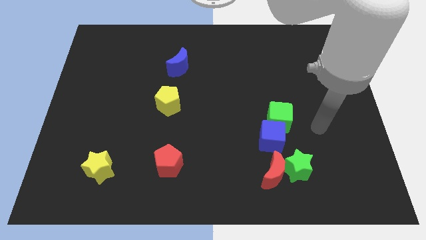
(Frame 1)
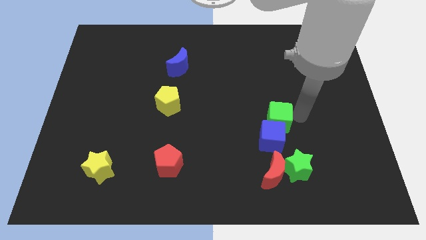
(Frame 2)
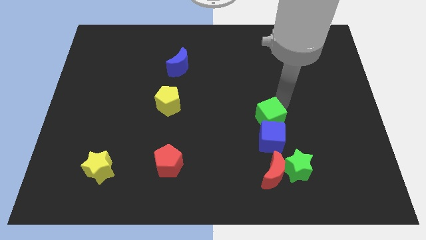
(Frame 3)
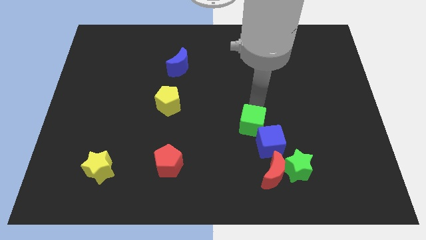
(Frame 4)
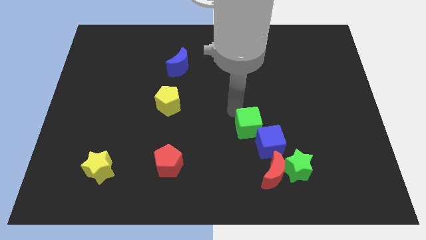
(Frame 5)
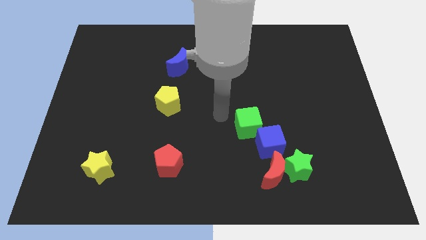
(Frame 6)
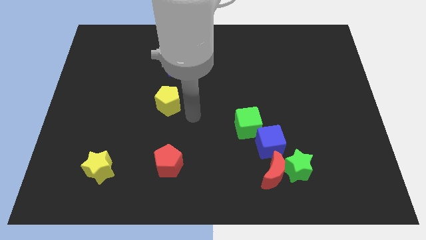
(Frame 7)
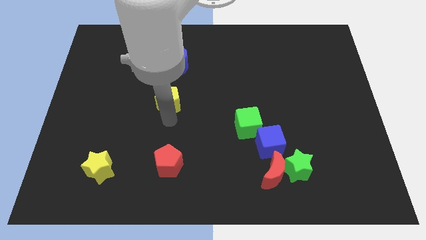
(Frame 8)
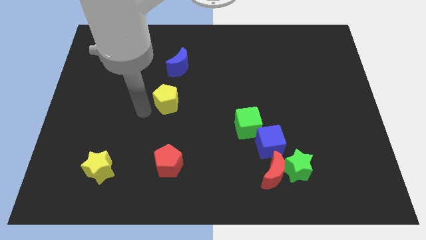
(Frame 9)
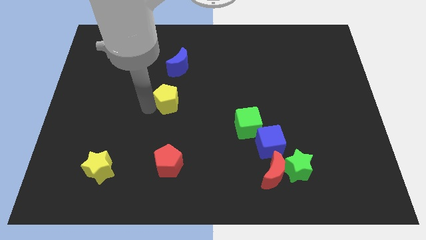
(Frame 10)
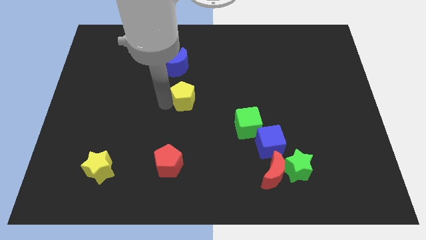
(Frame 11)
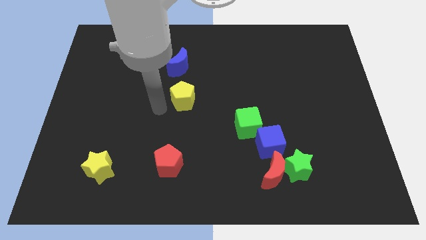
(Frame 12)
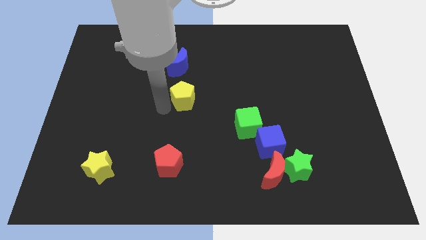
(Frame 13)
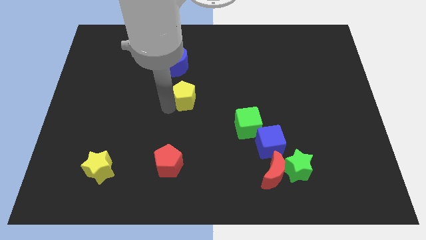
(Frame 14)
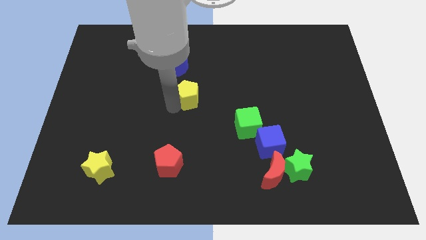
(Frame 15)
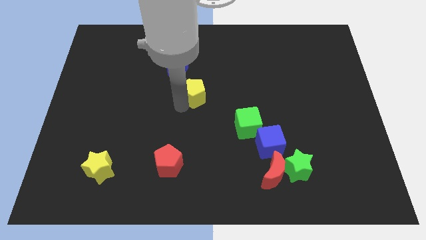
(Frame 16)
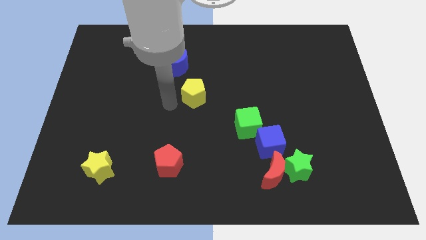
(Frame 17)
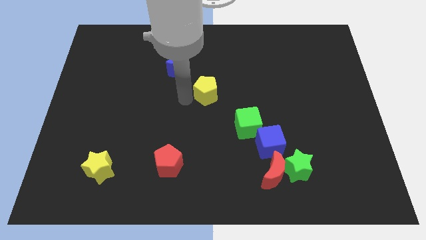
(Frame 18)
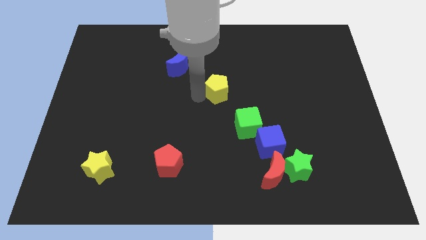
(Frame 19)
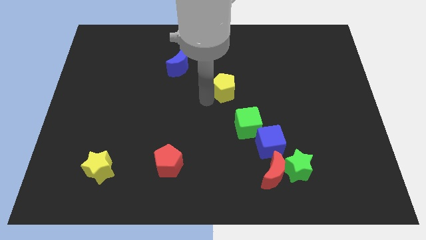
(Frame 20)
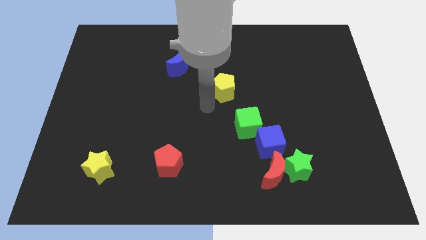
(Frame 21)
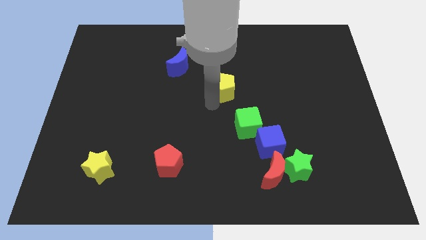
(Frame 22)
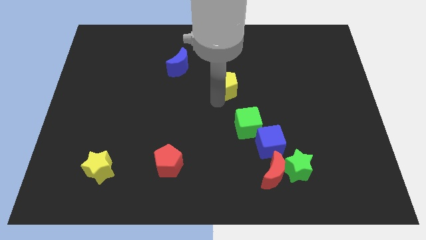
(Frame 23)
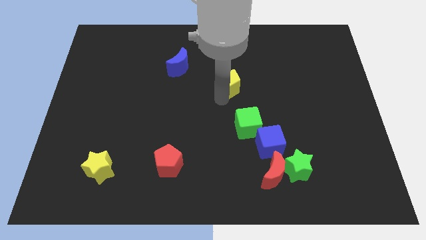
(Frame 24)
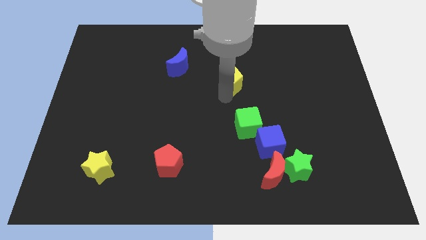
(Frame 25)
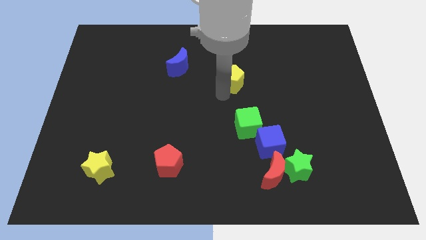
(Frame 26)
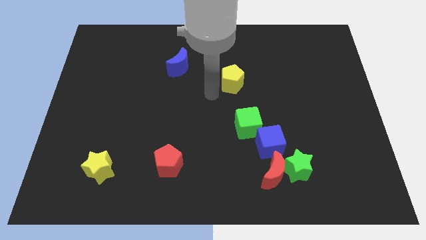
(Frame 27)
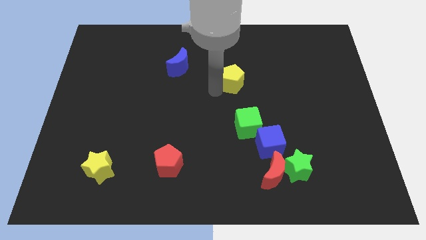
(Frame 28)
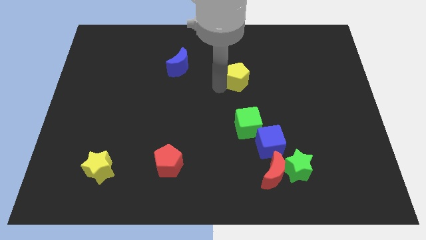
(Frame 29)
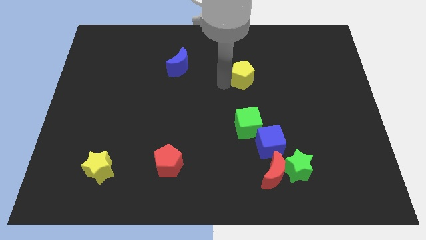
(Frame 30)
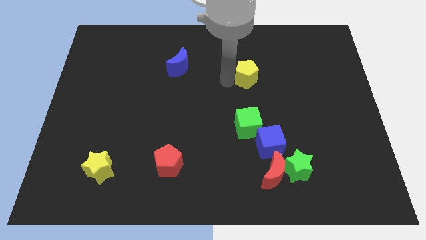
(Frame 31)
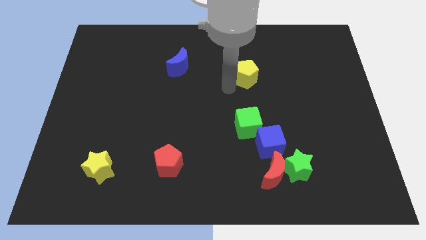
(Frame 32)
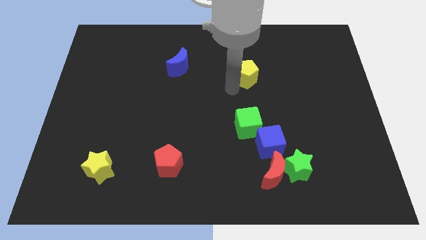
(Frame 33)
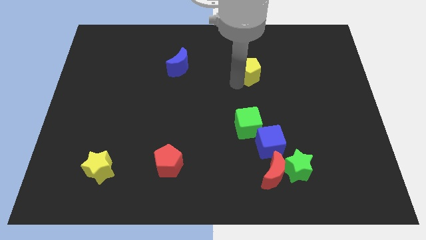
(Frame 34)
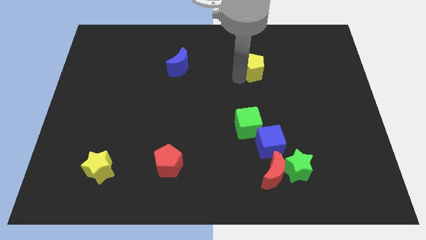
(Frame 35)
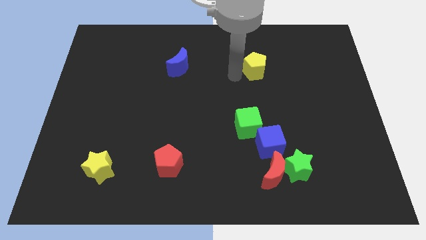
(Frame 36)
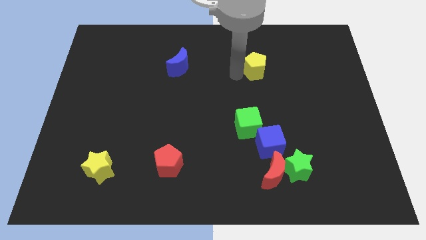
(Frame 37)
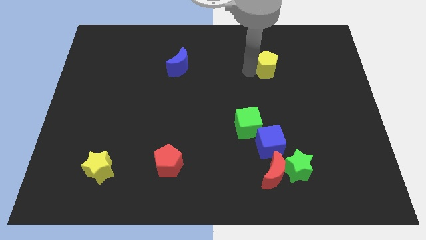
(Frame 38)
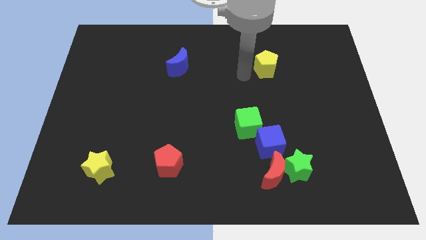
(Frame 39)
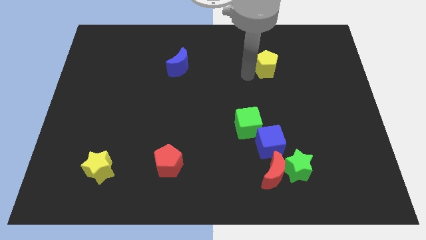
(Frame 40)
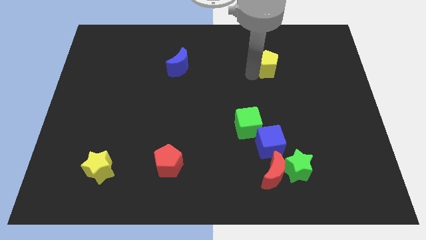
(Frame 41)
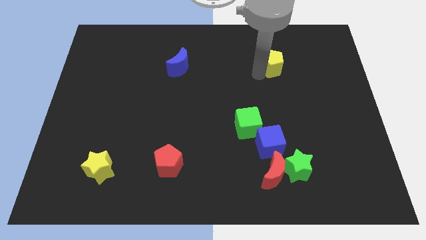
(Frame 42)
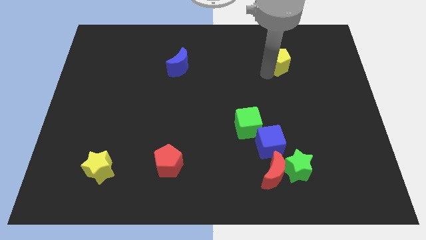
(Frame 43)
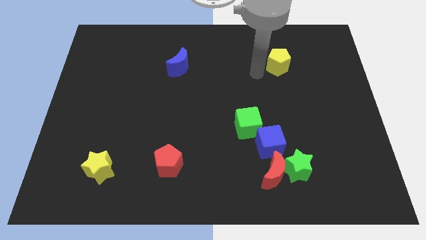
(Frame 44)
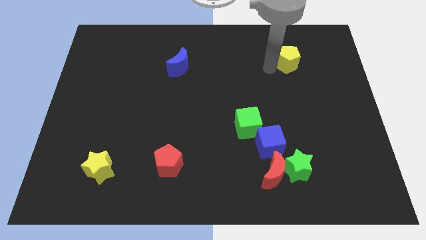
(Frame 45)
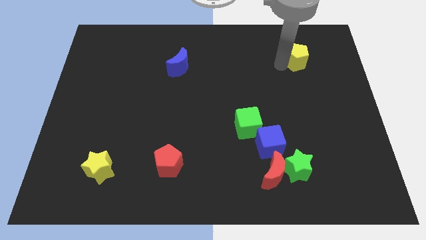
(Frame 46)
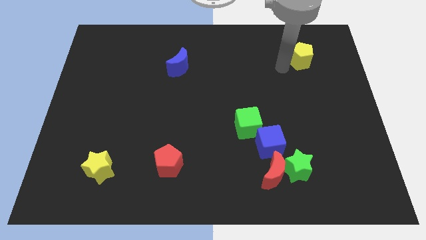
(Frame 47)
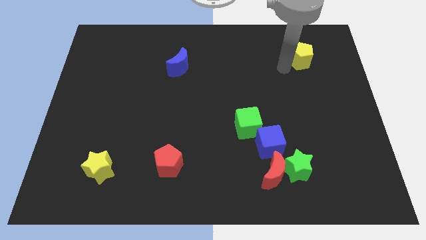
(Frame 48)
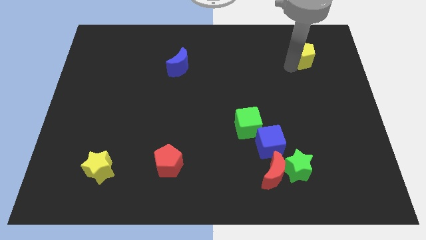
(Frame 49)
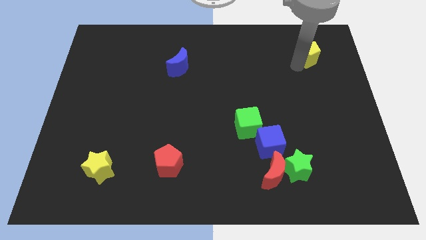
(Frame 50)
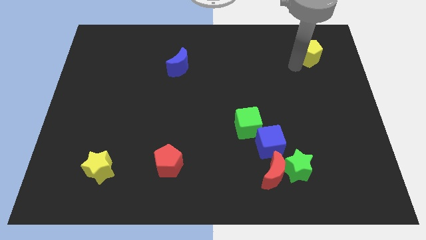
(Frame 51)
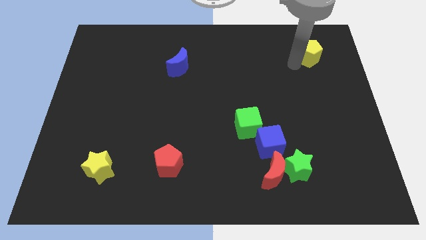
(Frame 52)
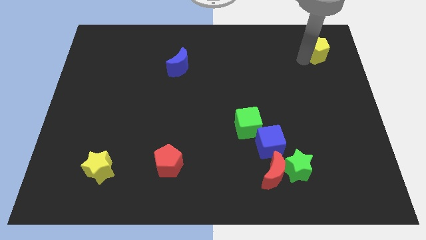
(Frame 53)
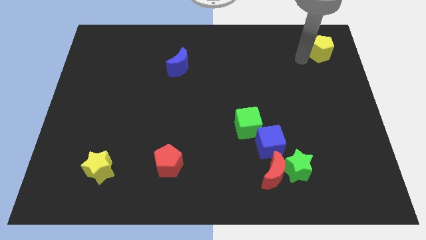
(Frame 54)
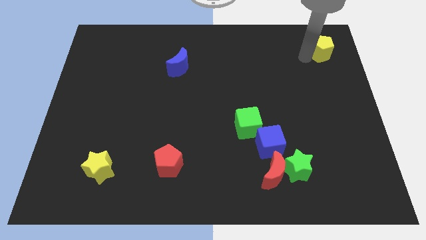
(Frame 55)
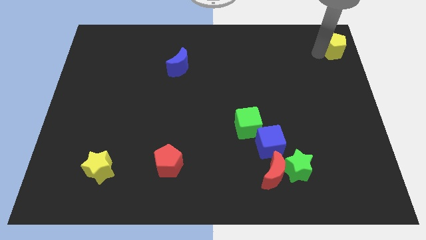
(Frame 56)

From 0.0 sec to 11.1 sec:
move the yellow pentagon to the top right
